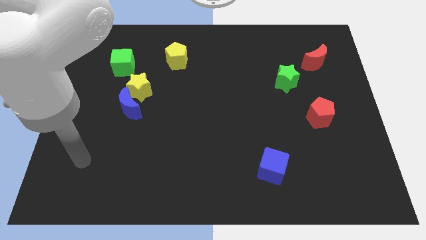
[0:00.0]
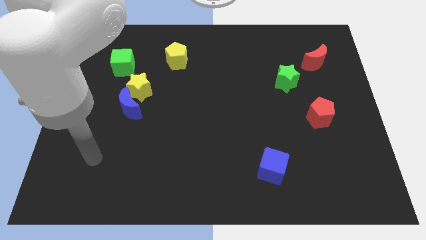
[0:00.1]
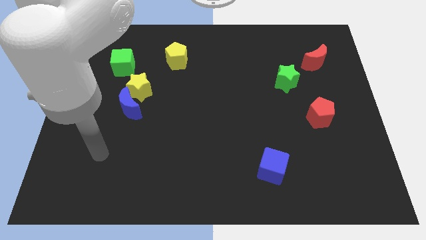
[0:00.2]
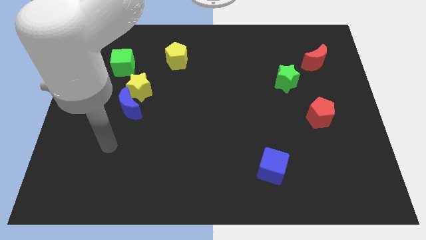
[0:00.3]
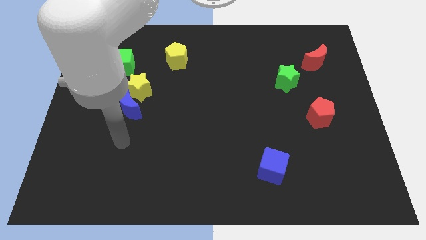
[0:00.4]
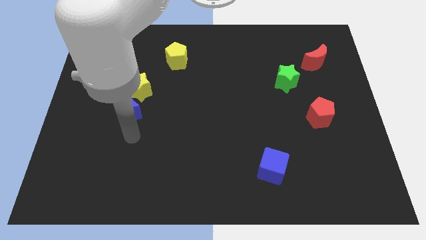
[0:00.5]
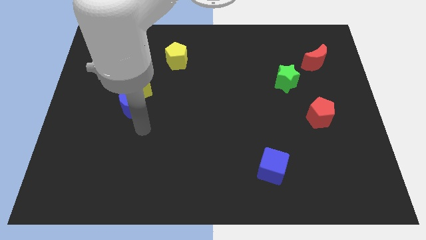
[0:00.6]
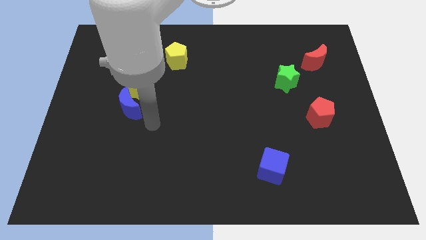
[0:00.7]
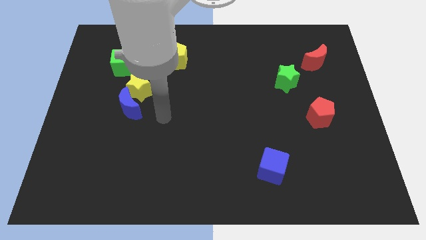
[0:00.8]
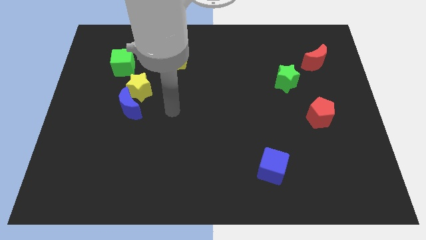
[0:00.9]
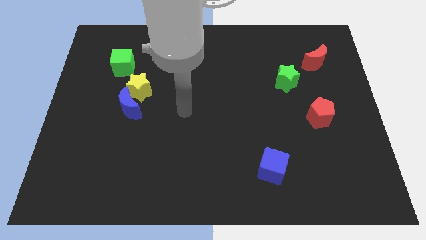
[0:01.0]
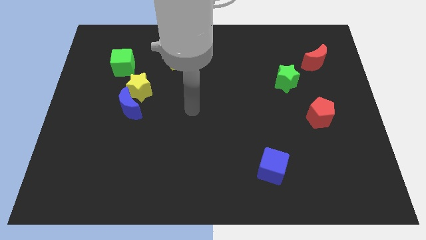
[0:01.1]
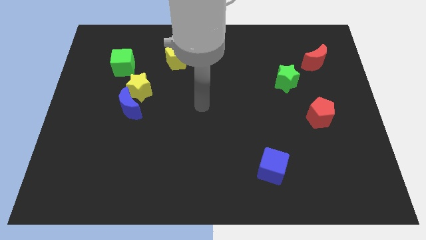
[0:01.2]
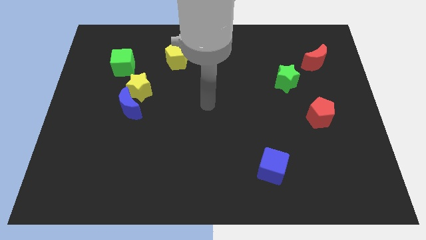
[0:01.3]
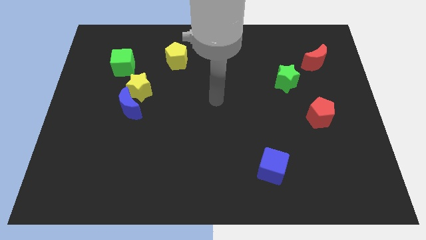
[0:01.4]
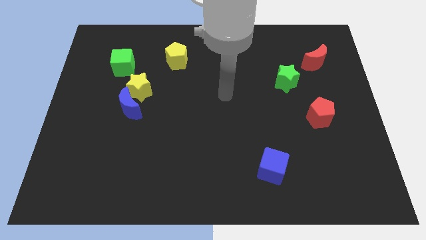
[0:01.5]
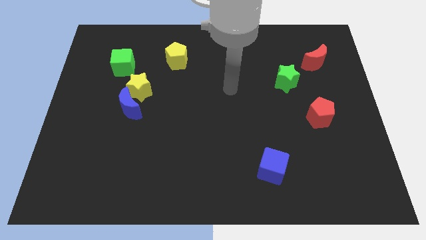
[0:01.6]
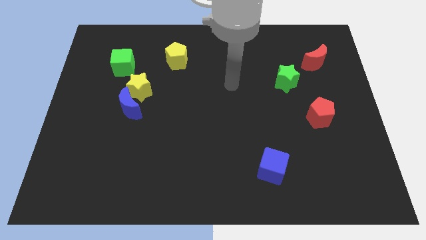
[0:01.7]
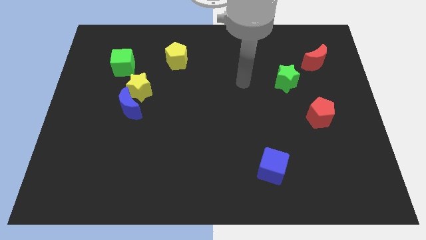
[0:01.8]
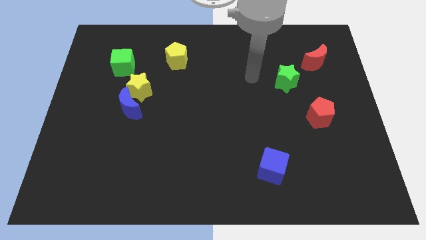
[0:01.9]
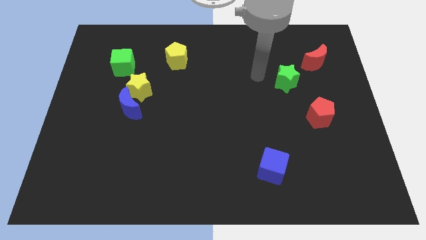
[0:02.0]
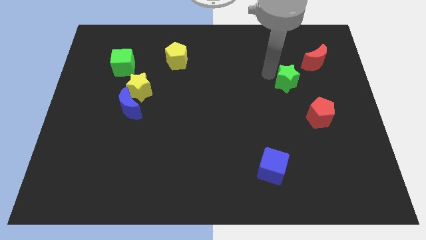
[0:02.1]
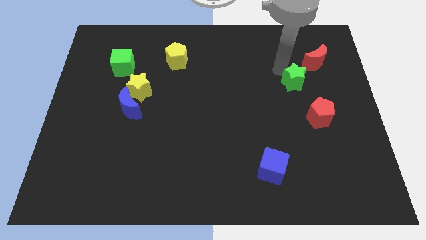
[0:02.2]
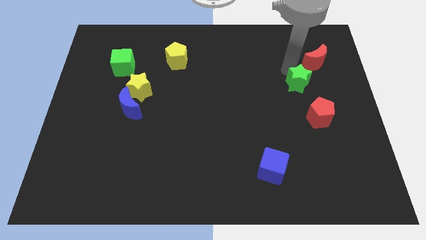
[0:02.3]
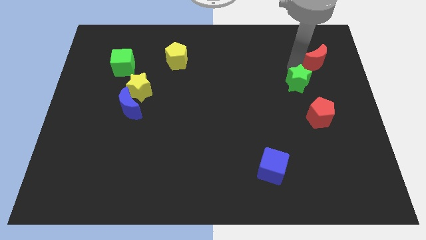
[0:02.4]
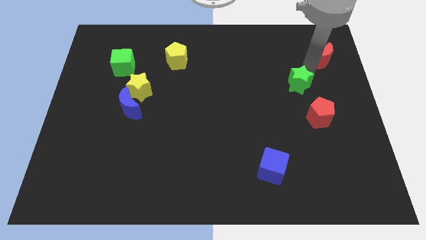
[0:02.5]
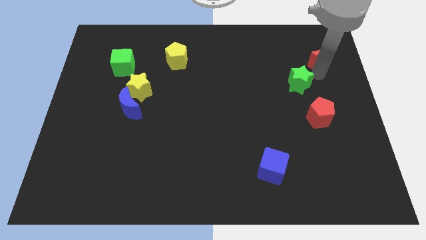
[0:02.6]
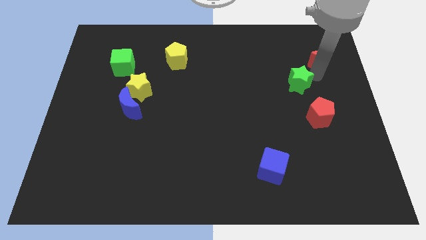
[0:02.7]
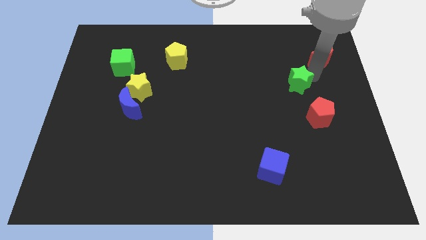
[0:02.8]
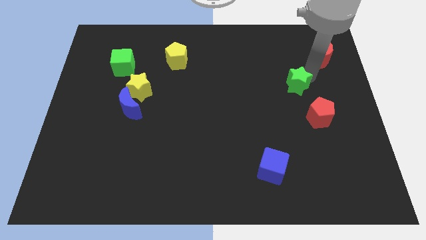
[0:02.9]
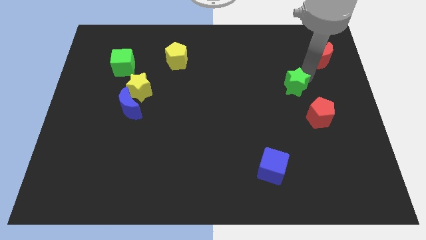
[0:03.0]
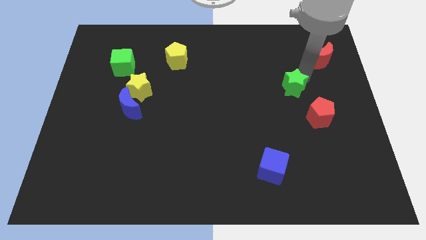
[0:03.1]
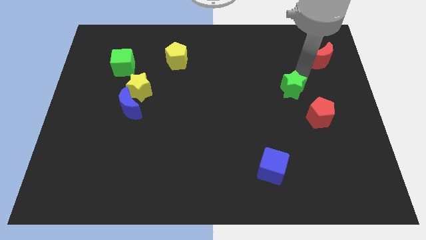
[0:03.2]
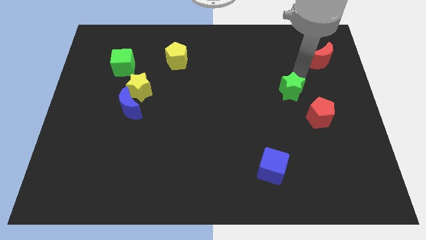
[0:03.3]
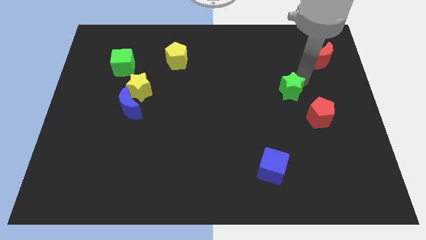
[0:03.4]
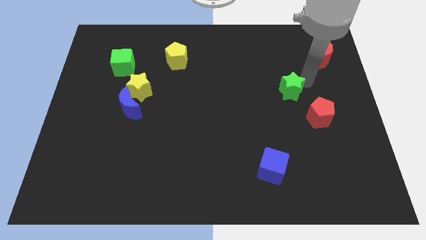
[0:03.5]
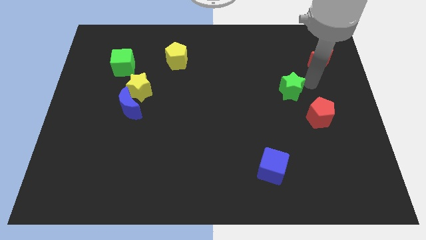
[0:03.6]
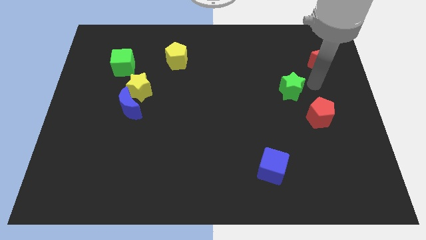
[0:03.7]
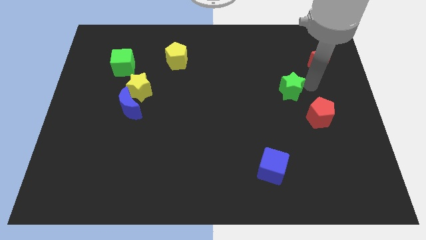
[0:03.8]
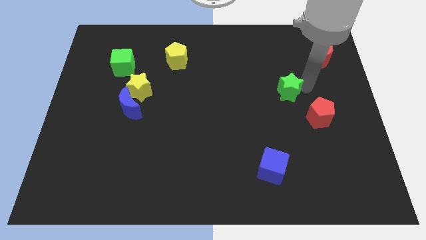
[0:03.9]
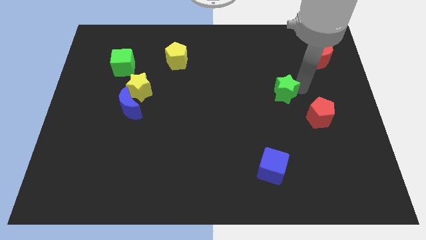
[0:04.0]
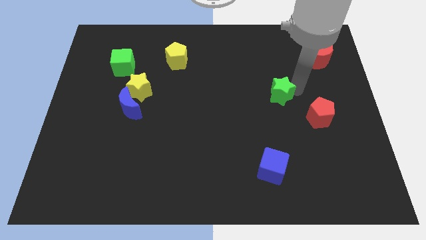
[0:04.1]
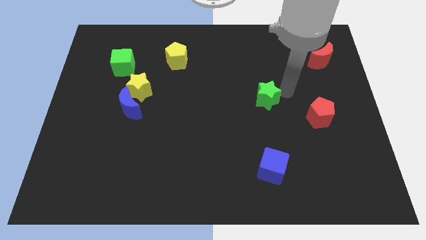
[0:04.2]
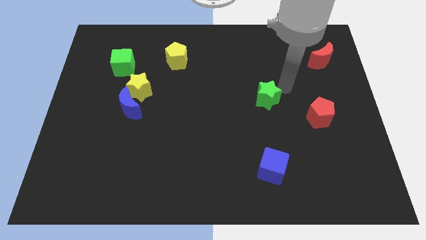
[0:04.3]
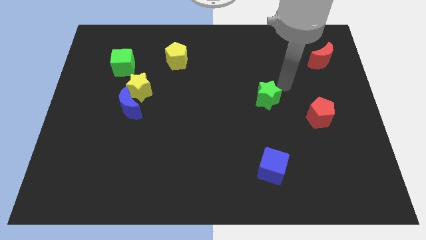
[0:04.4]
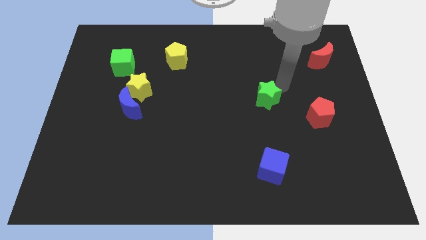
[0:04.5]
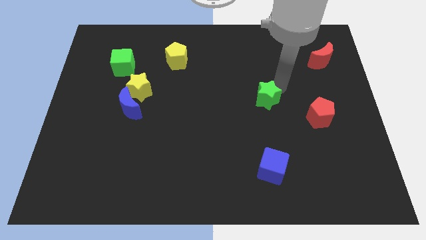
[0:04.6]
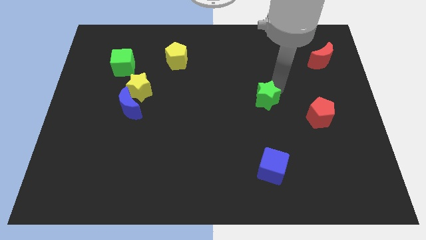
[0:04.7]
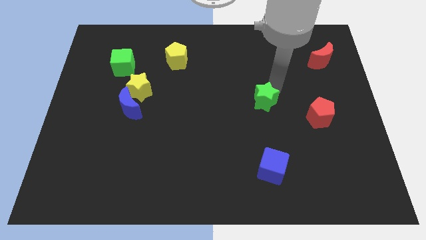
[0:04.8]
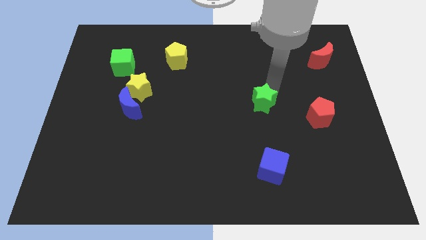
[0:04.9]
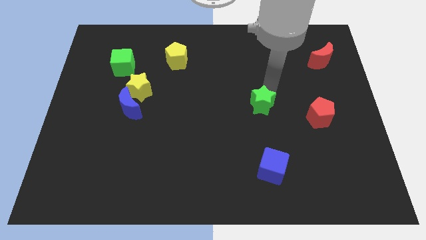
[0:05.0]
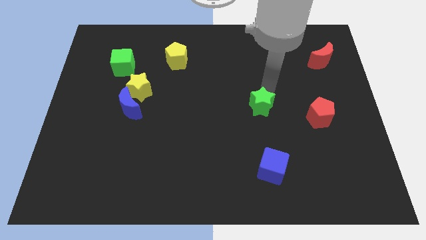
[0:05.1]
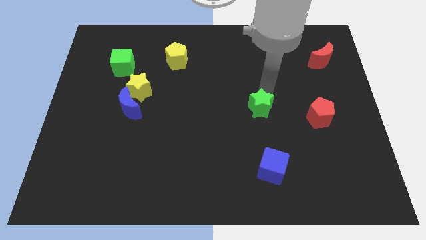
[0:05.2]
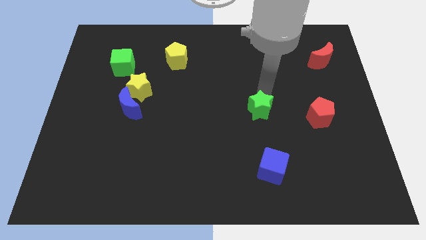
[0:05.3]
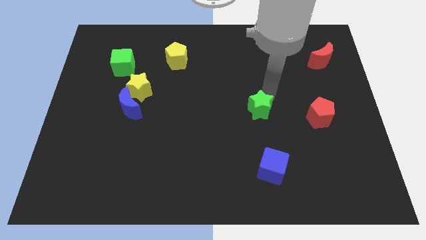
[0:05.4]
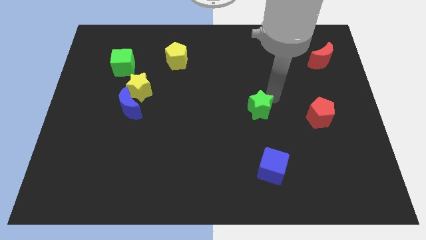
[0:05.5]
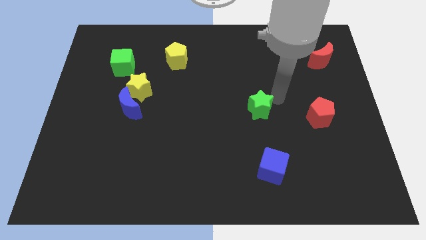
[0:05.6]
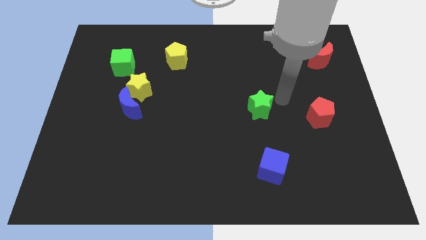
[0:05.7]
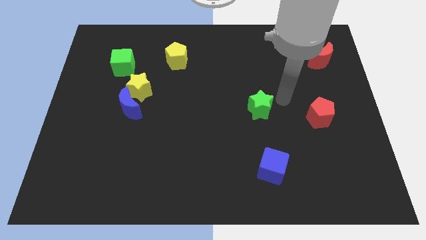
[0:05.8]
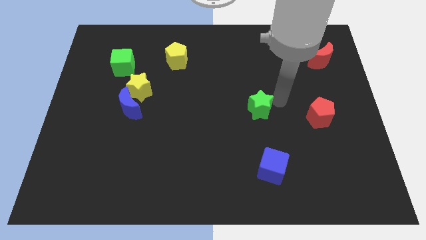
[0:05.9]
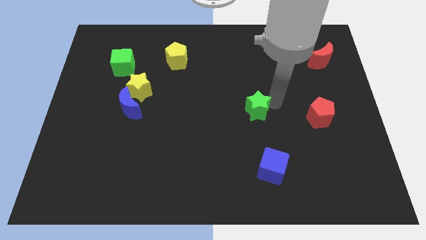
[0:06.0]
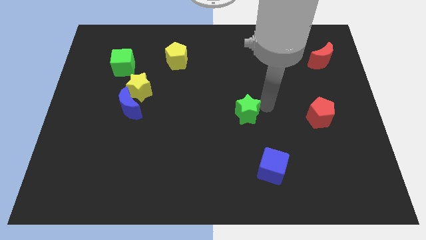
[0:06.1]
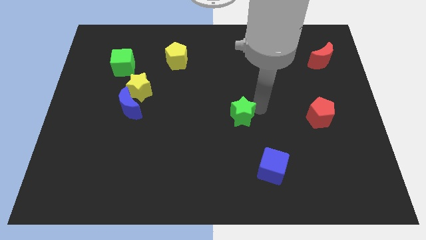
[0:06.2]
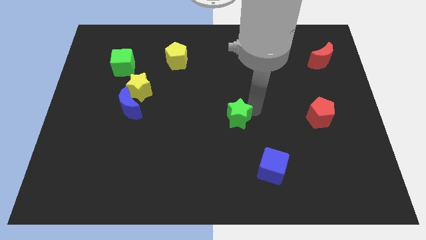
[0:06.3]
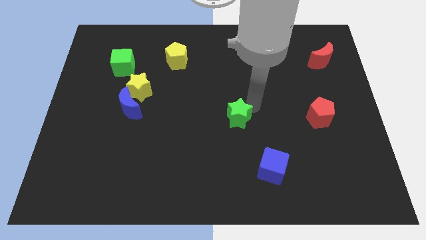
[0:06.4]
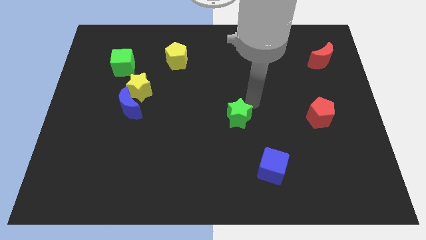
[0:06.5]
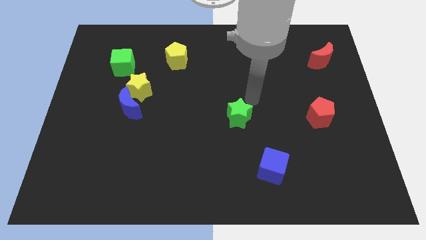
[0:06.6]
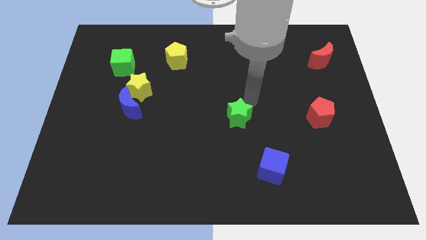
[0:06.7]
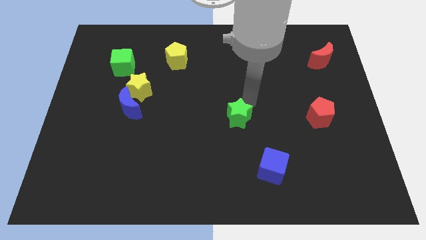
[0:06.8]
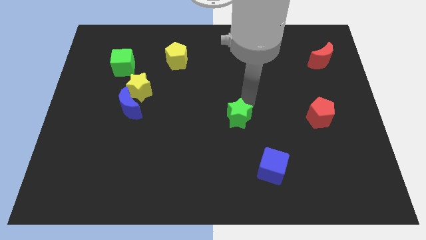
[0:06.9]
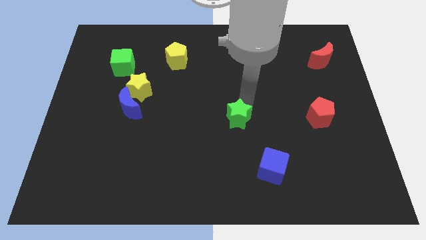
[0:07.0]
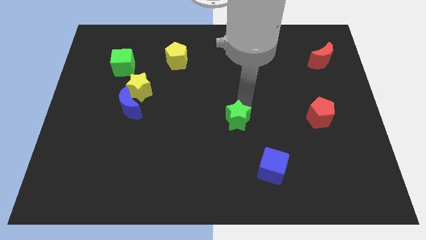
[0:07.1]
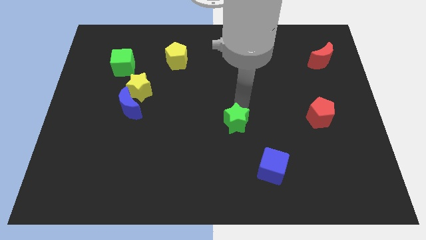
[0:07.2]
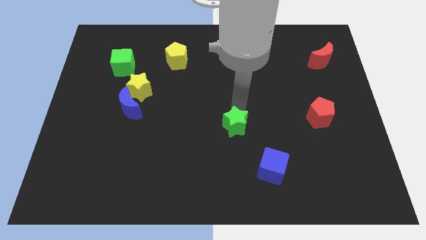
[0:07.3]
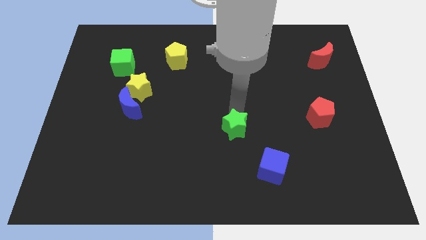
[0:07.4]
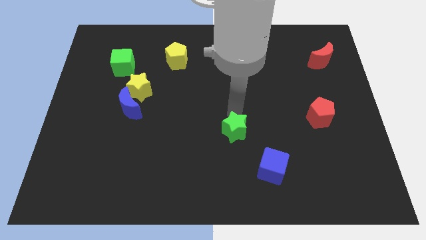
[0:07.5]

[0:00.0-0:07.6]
move the green star downwards and then left

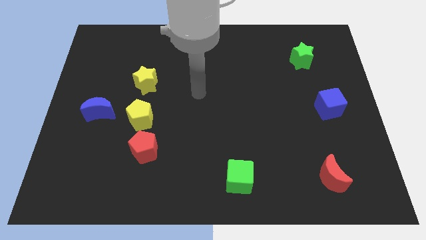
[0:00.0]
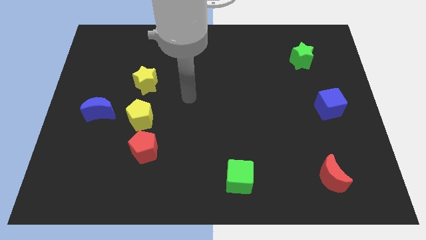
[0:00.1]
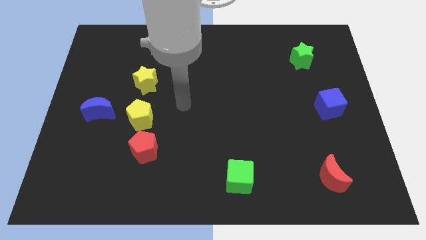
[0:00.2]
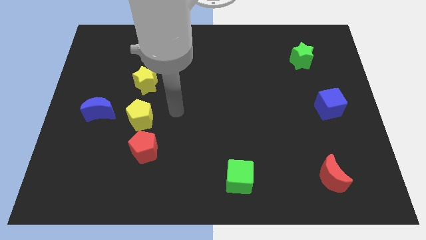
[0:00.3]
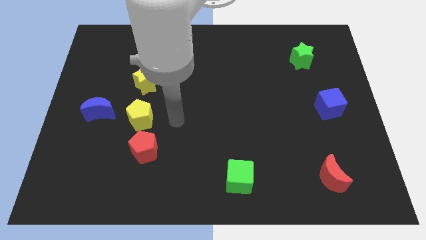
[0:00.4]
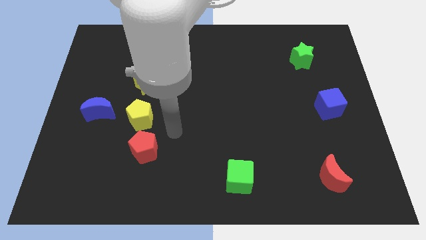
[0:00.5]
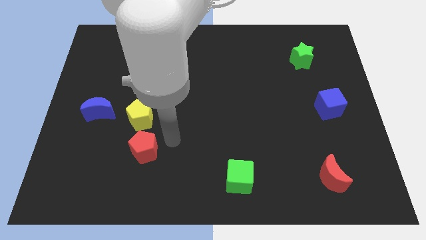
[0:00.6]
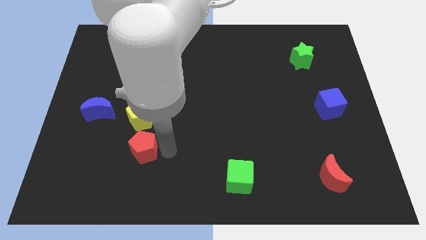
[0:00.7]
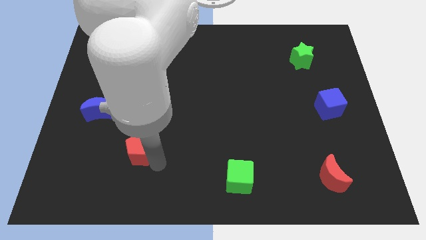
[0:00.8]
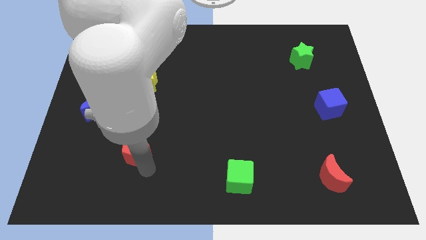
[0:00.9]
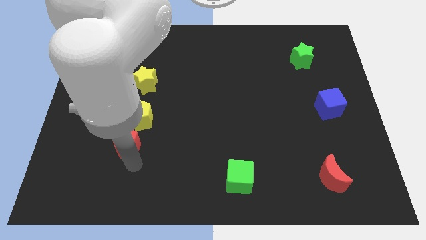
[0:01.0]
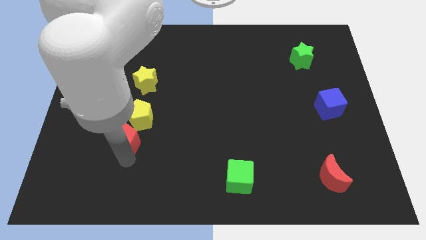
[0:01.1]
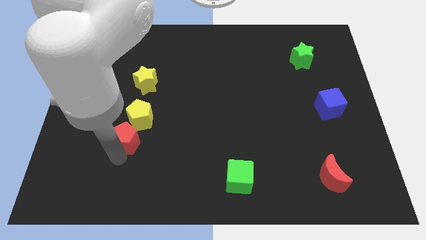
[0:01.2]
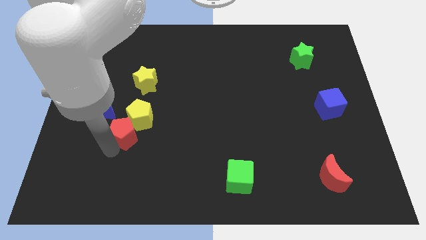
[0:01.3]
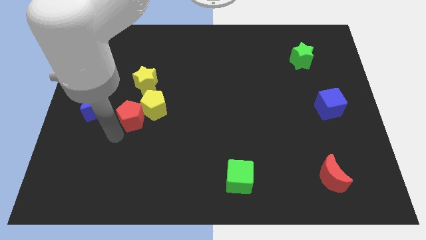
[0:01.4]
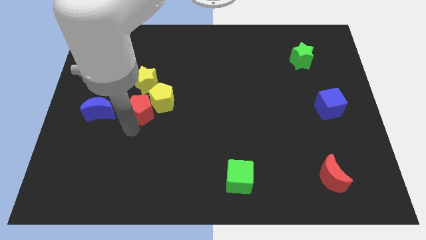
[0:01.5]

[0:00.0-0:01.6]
move the yellow pentagon up and to the right a little
